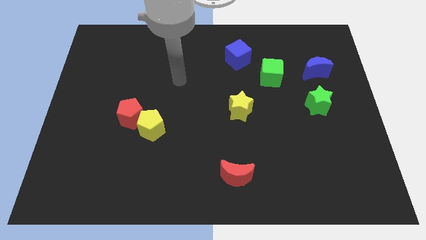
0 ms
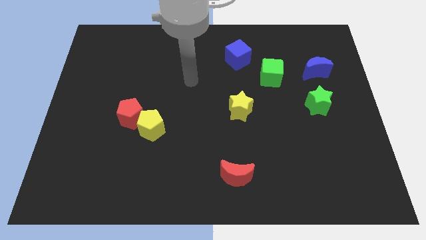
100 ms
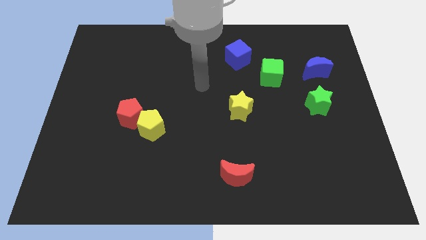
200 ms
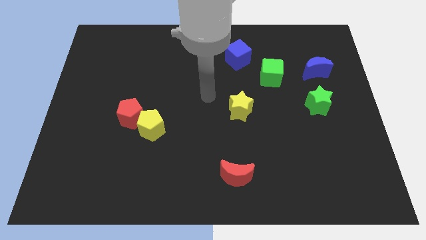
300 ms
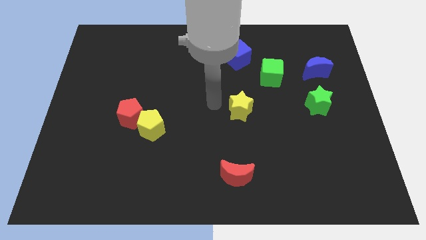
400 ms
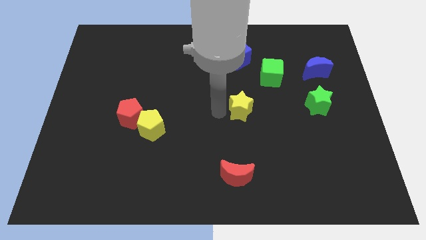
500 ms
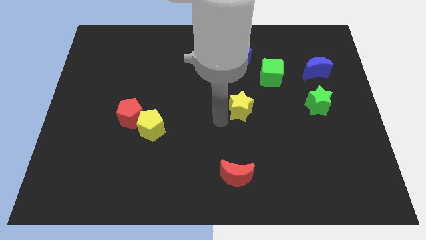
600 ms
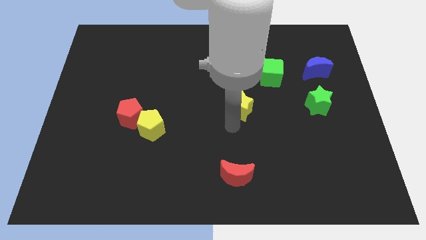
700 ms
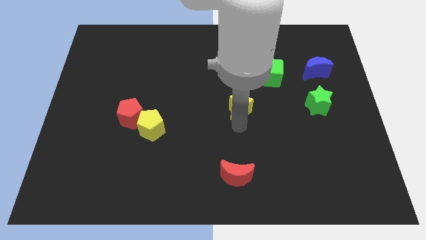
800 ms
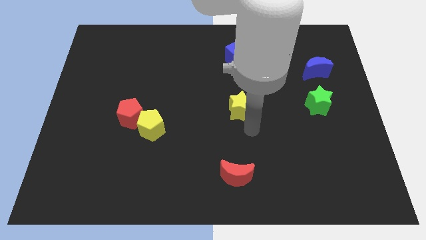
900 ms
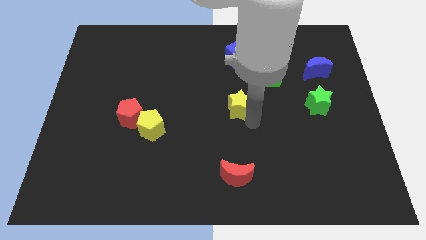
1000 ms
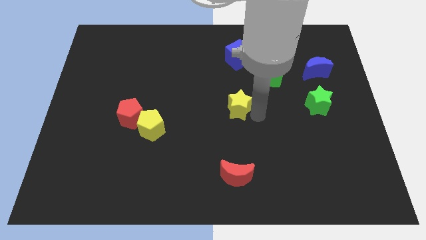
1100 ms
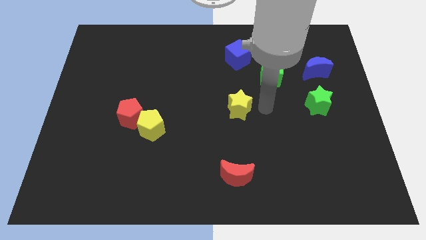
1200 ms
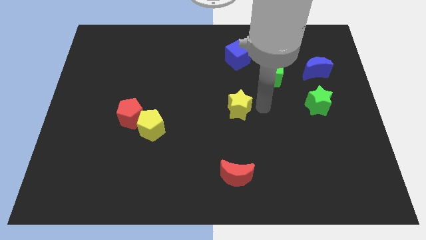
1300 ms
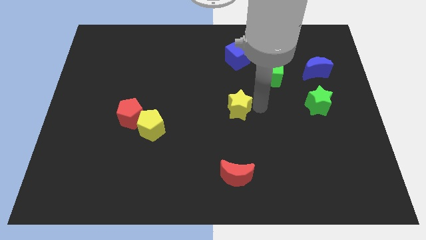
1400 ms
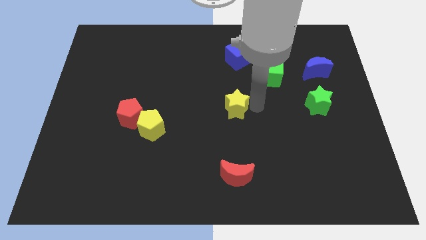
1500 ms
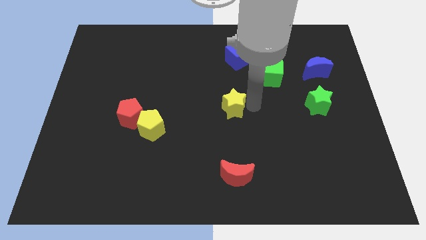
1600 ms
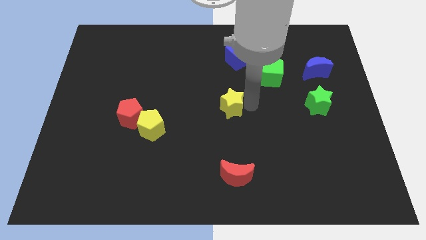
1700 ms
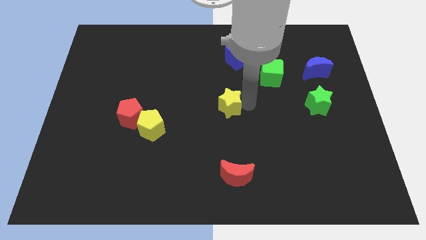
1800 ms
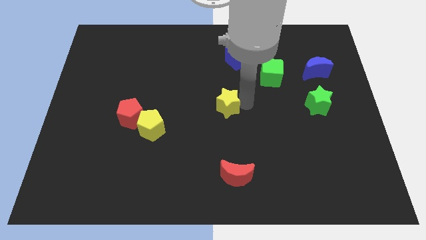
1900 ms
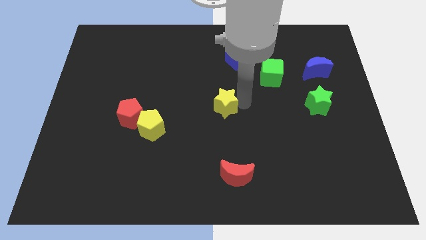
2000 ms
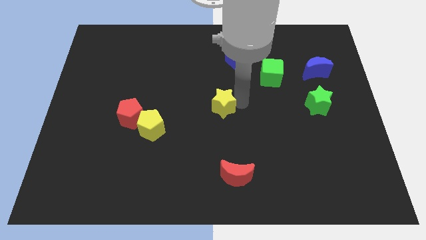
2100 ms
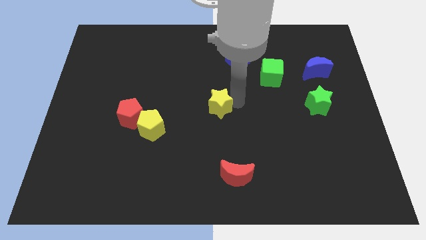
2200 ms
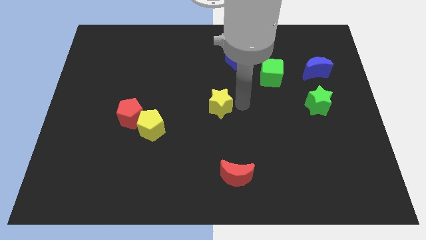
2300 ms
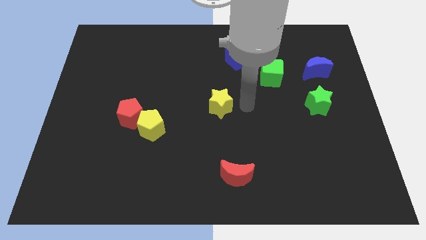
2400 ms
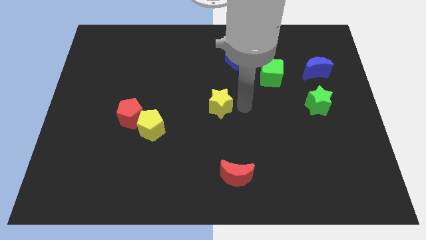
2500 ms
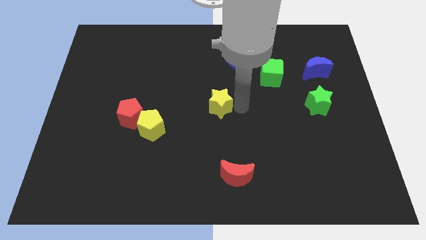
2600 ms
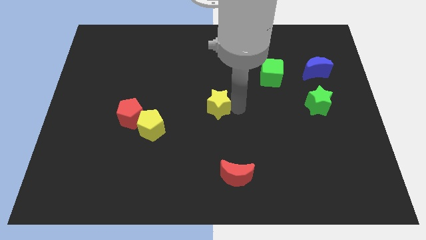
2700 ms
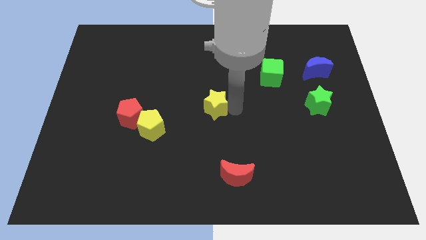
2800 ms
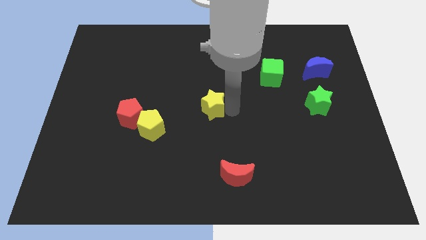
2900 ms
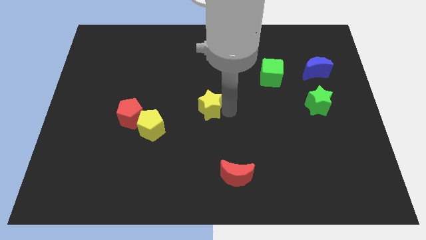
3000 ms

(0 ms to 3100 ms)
push the yellow star left a little bit

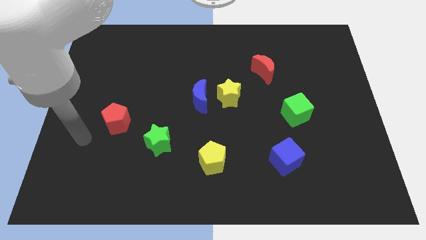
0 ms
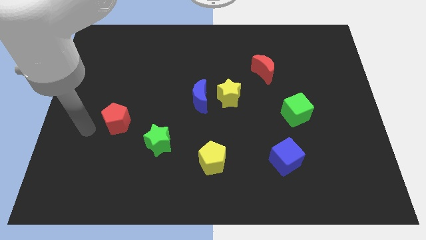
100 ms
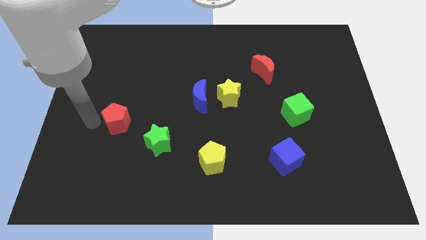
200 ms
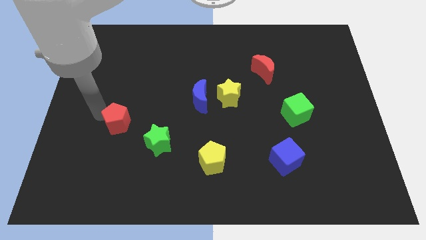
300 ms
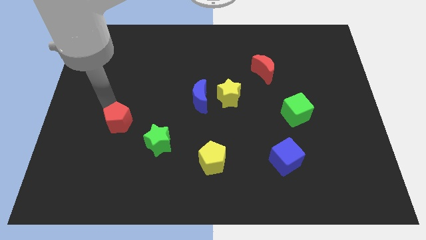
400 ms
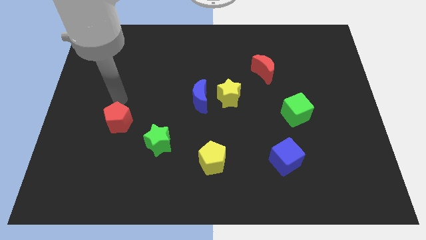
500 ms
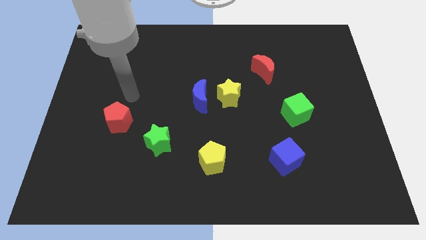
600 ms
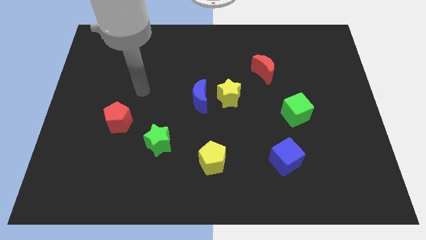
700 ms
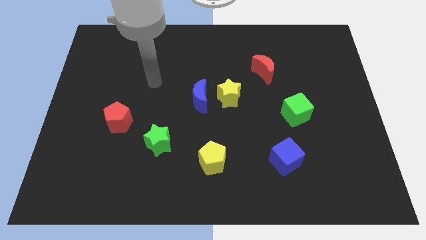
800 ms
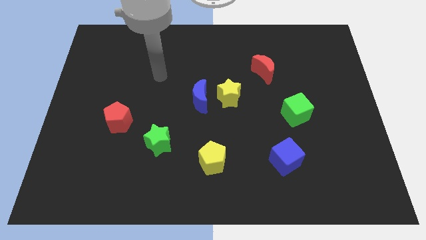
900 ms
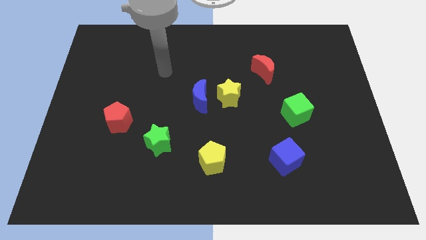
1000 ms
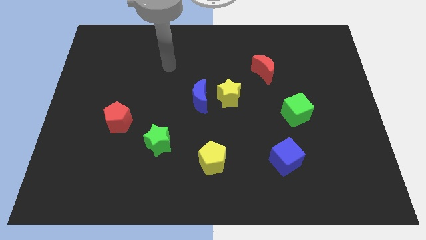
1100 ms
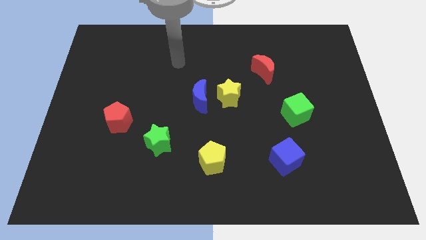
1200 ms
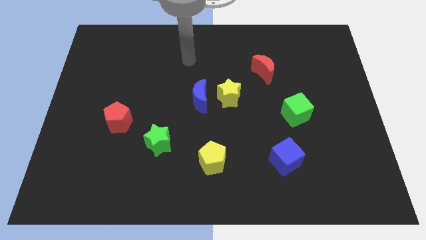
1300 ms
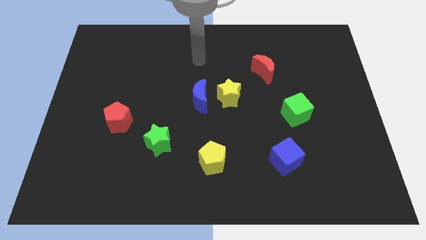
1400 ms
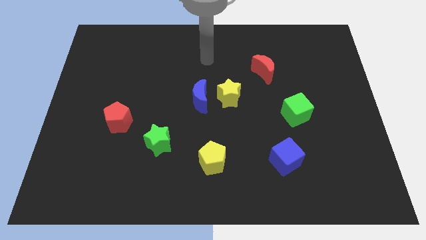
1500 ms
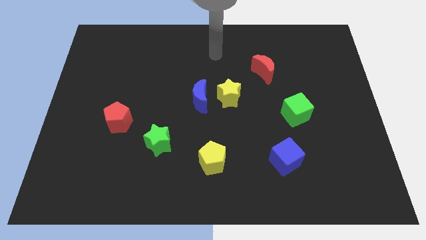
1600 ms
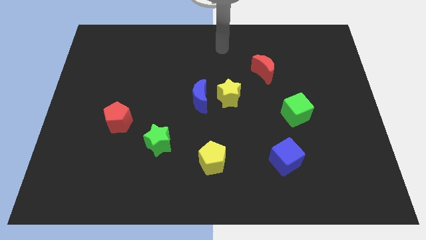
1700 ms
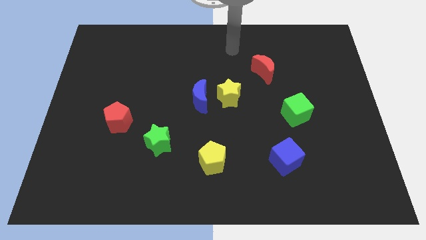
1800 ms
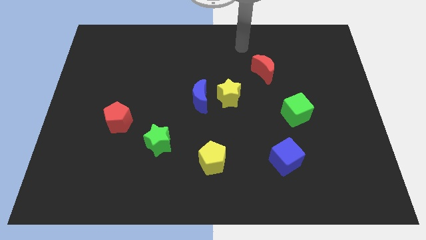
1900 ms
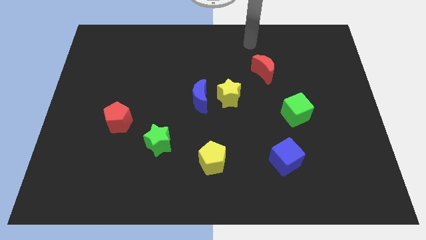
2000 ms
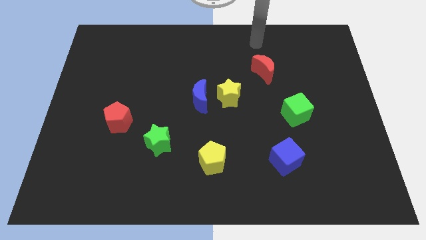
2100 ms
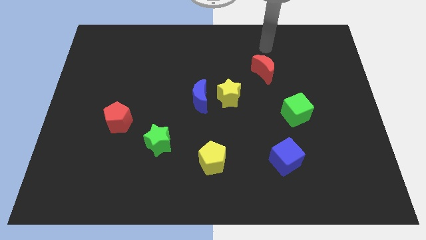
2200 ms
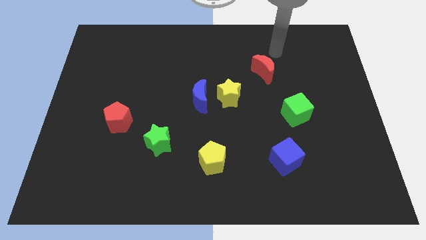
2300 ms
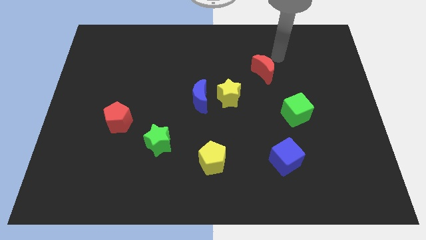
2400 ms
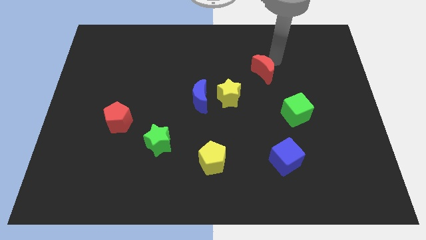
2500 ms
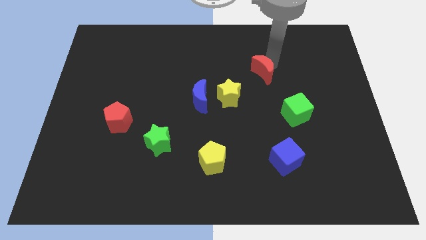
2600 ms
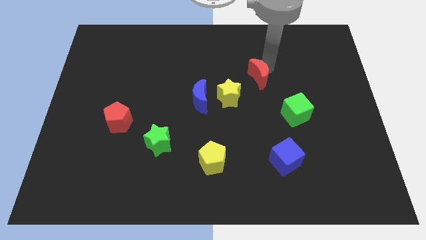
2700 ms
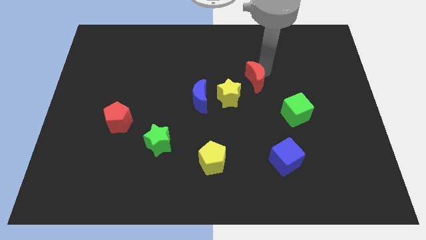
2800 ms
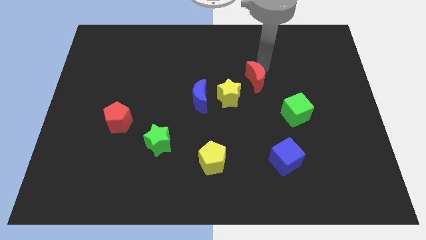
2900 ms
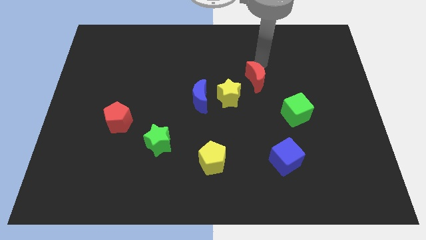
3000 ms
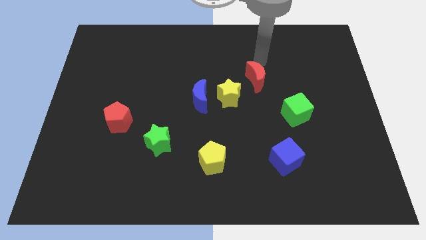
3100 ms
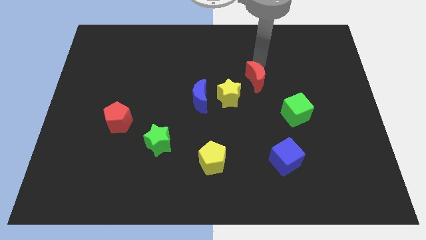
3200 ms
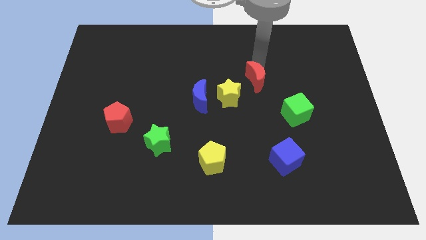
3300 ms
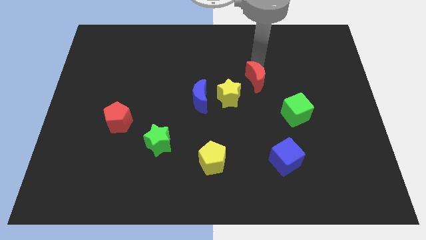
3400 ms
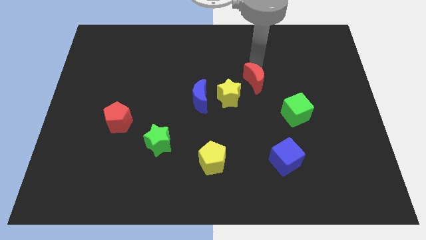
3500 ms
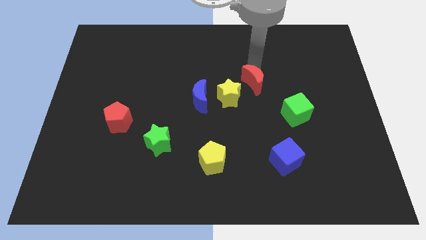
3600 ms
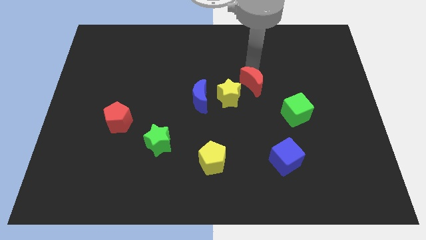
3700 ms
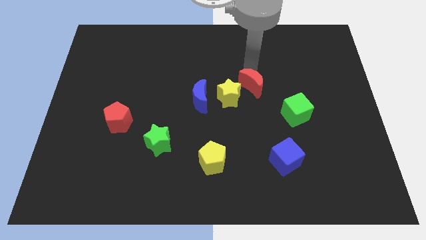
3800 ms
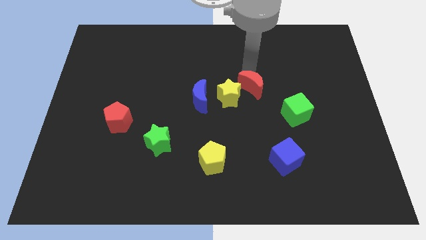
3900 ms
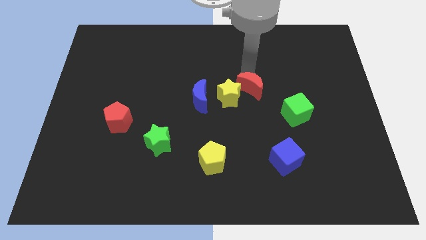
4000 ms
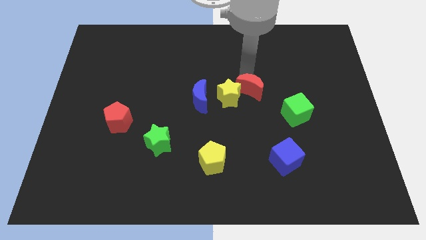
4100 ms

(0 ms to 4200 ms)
slide the red moon diagonally down and to the left a little bit

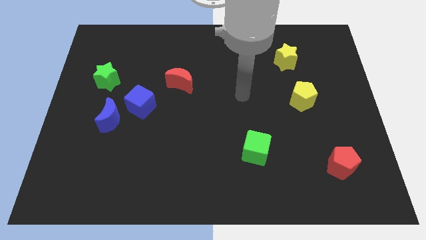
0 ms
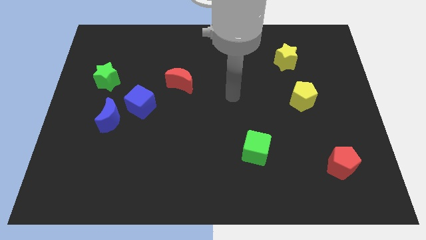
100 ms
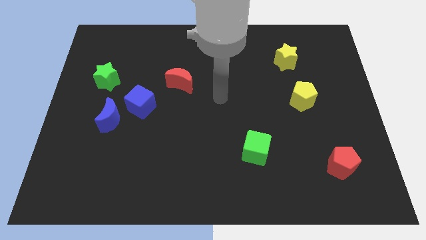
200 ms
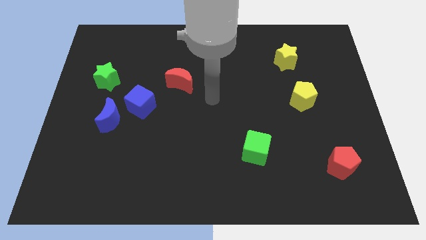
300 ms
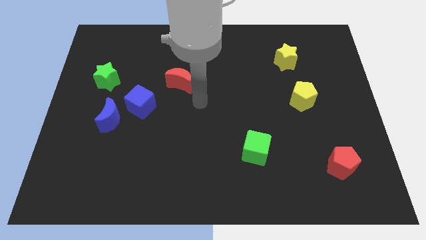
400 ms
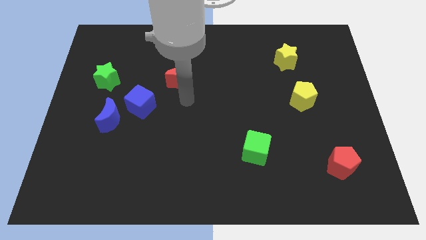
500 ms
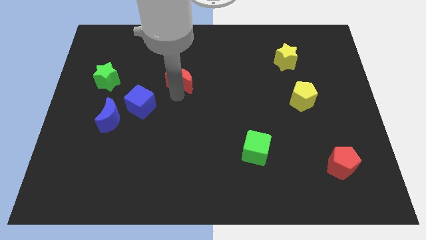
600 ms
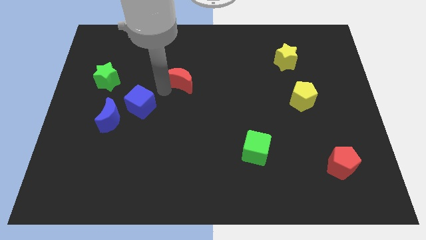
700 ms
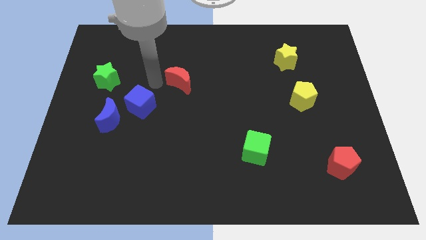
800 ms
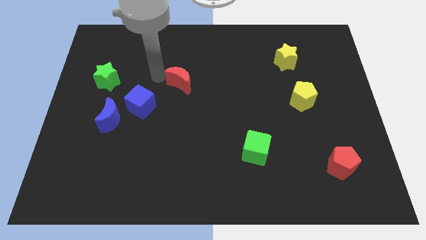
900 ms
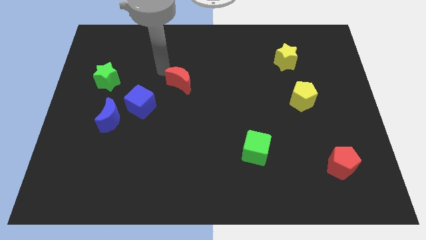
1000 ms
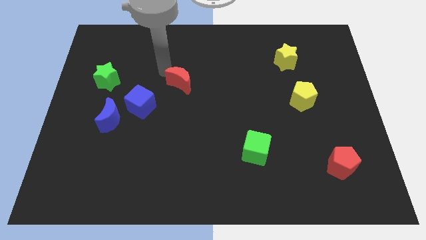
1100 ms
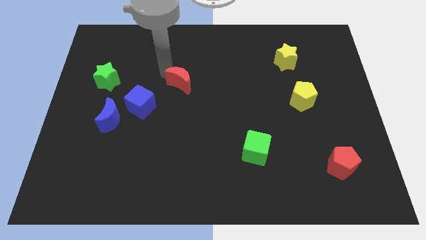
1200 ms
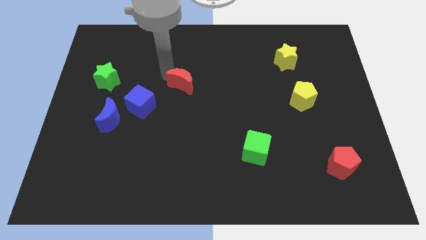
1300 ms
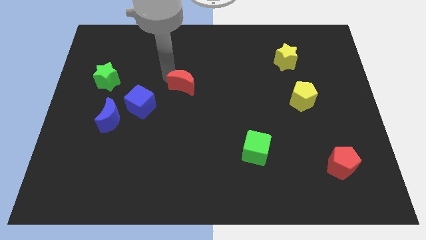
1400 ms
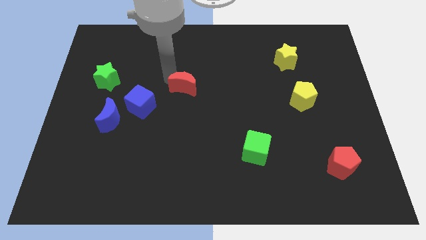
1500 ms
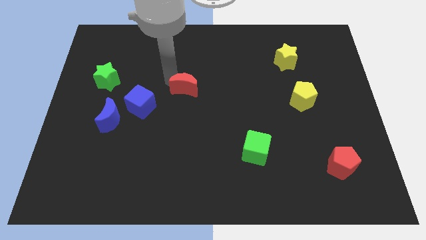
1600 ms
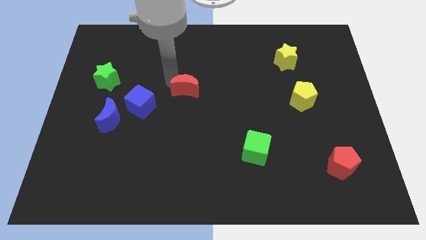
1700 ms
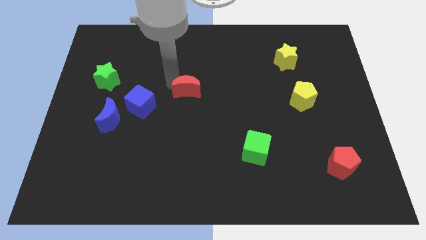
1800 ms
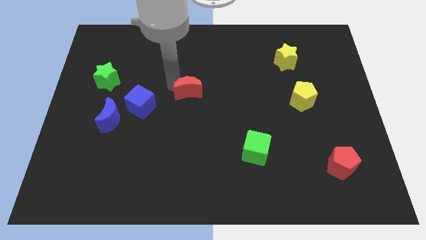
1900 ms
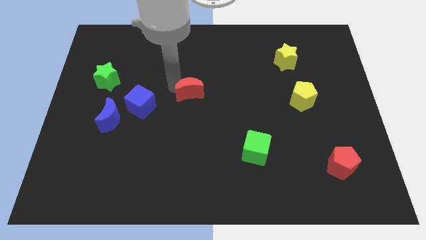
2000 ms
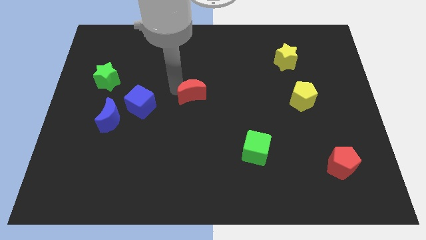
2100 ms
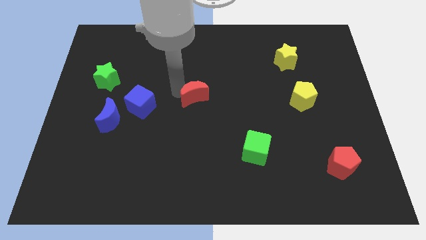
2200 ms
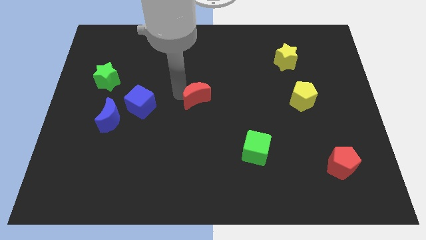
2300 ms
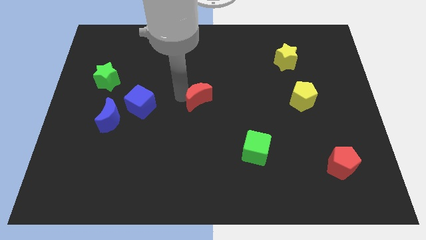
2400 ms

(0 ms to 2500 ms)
push the red moon diagonally downwards and right a little
